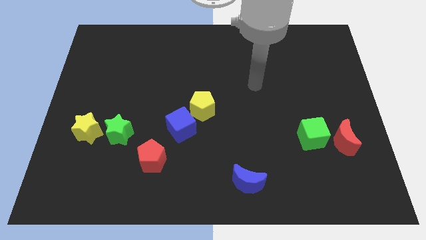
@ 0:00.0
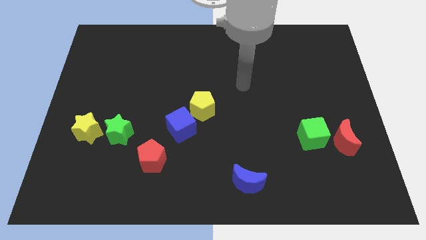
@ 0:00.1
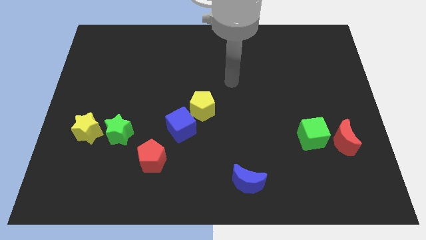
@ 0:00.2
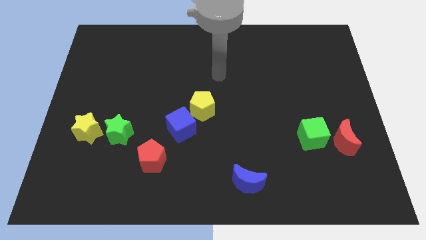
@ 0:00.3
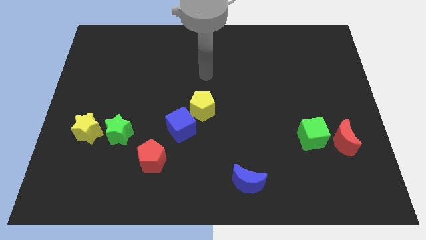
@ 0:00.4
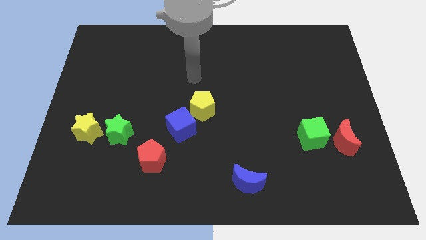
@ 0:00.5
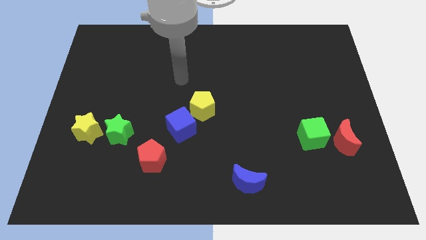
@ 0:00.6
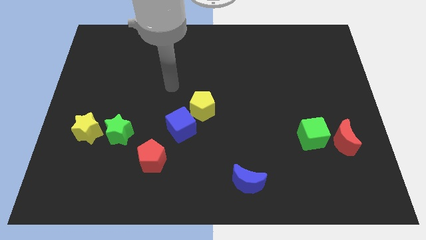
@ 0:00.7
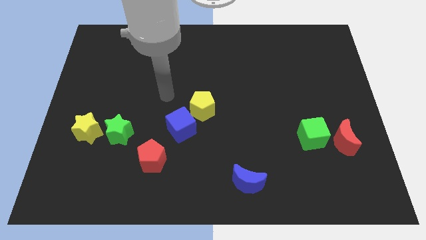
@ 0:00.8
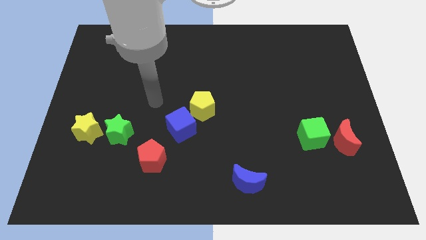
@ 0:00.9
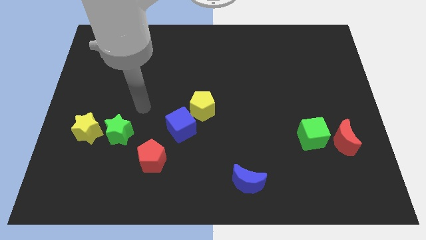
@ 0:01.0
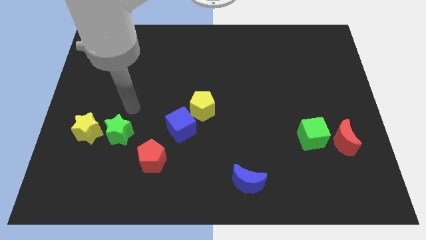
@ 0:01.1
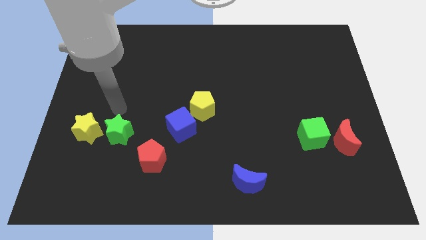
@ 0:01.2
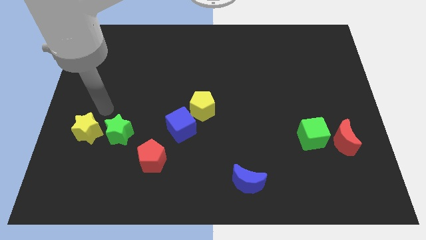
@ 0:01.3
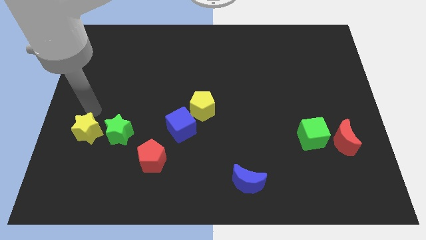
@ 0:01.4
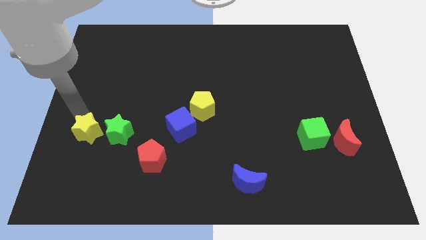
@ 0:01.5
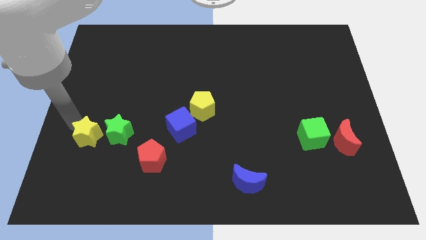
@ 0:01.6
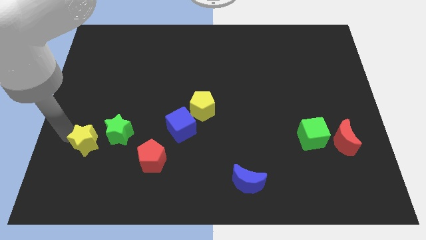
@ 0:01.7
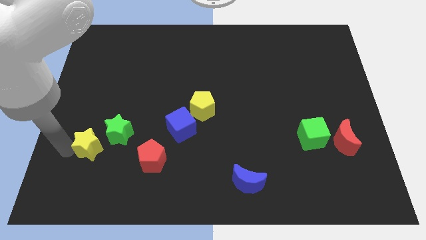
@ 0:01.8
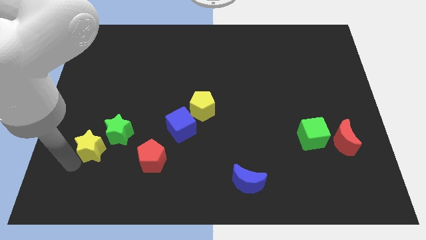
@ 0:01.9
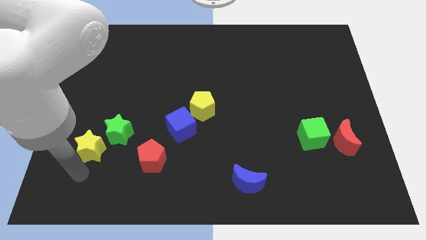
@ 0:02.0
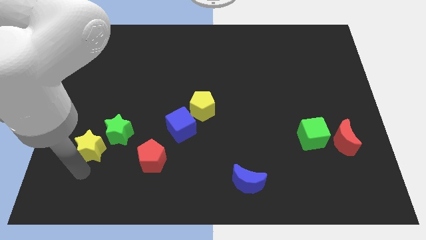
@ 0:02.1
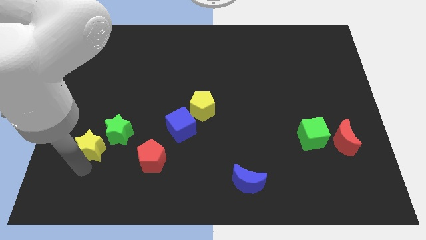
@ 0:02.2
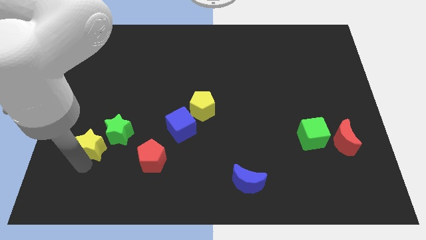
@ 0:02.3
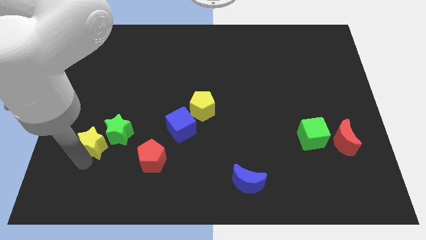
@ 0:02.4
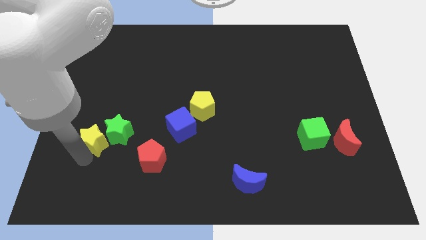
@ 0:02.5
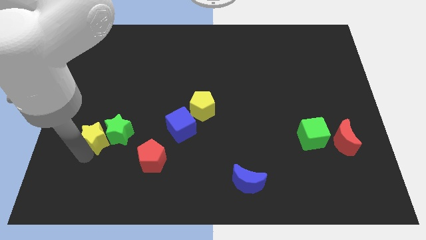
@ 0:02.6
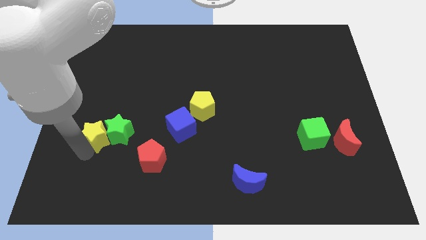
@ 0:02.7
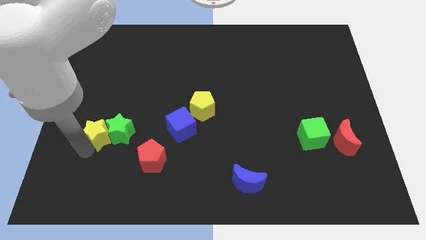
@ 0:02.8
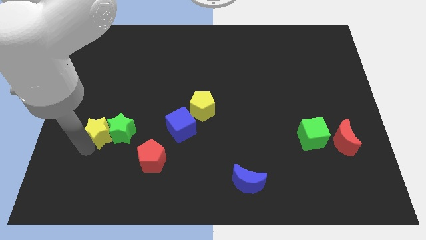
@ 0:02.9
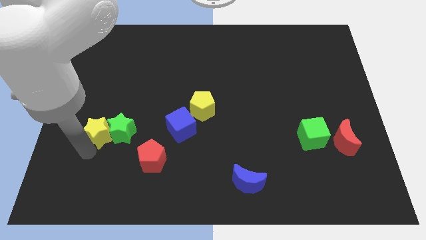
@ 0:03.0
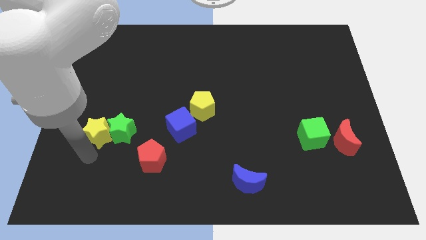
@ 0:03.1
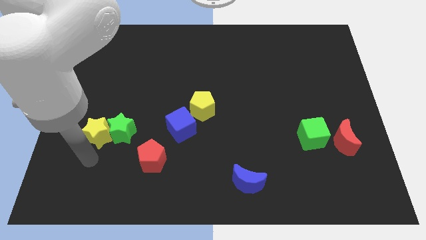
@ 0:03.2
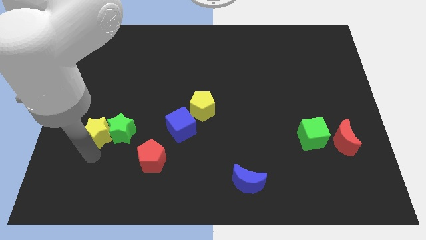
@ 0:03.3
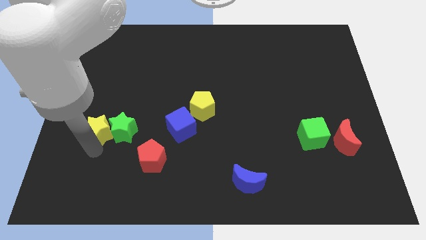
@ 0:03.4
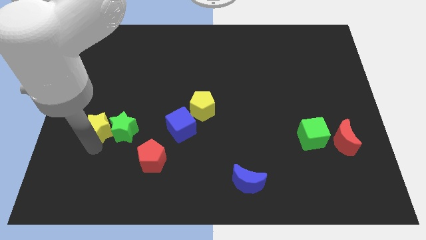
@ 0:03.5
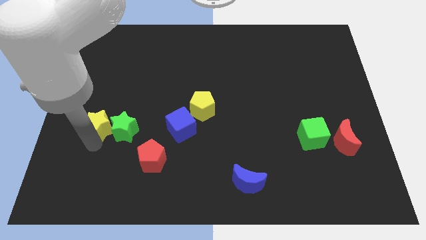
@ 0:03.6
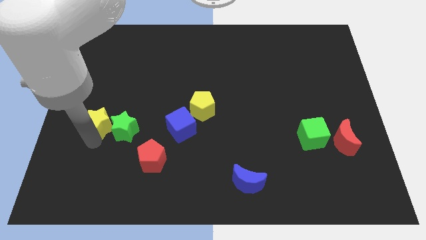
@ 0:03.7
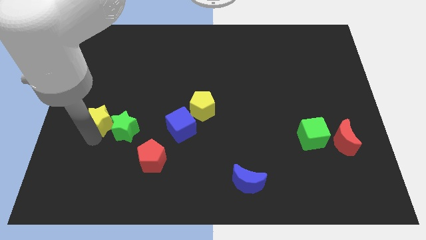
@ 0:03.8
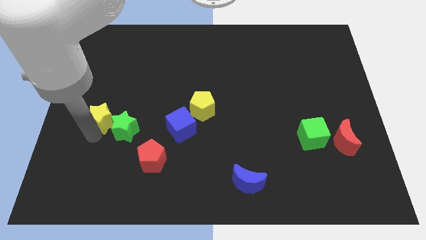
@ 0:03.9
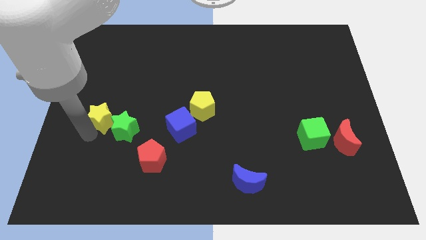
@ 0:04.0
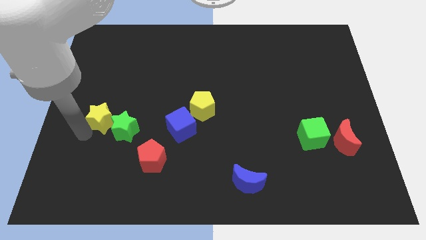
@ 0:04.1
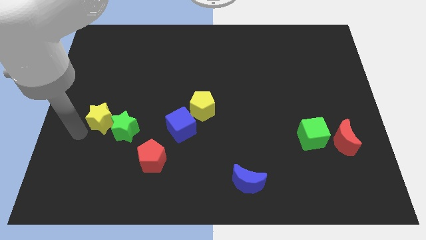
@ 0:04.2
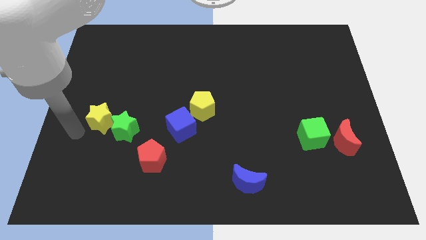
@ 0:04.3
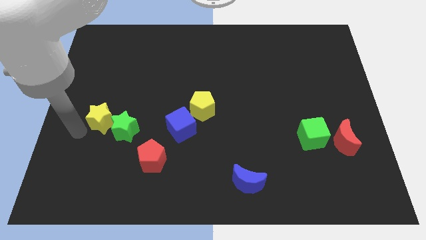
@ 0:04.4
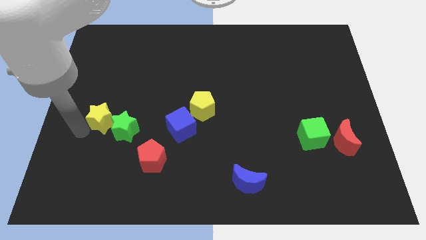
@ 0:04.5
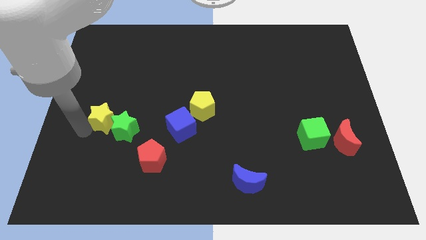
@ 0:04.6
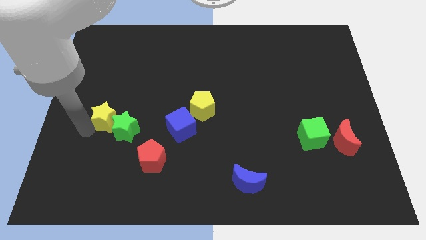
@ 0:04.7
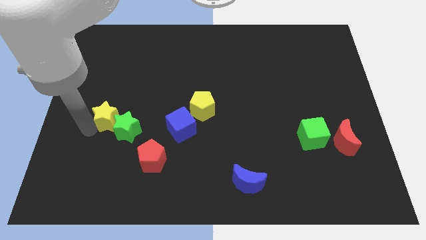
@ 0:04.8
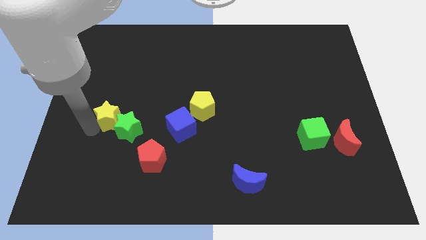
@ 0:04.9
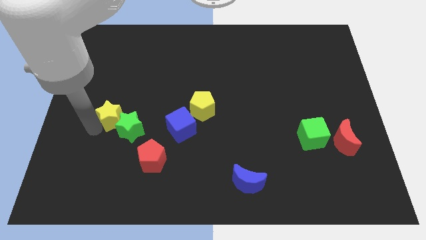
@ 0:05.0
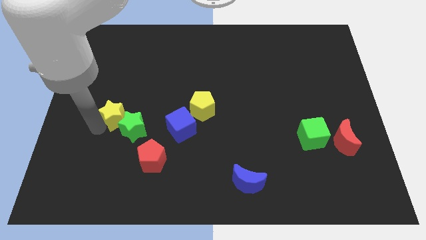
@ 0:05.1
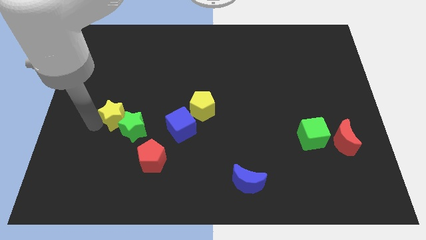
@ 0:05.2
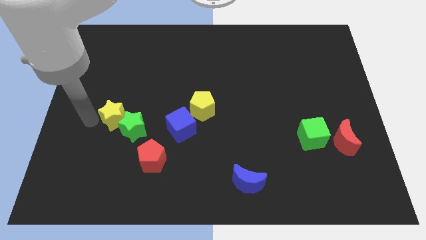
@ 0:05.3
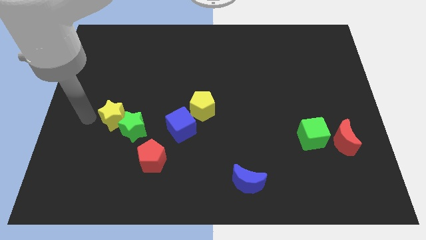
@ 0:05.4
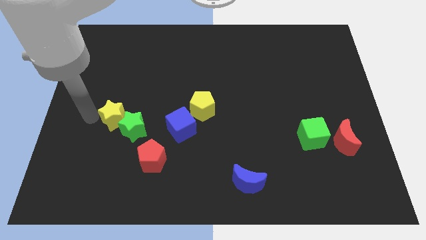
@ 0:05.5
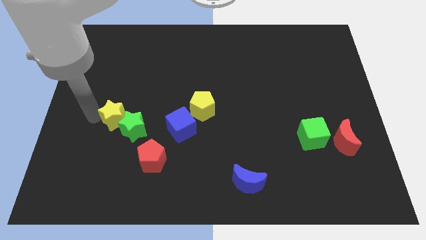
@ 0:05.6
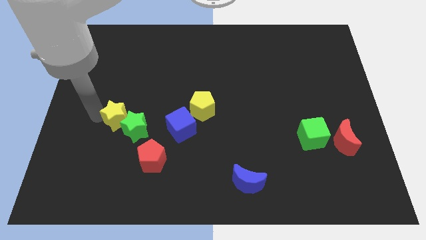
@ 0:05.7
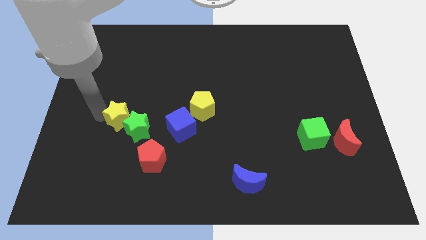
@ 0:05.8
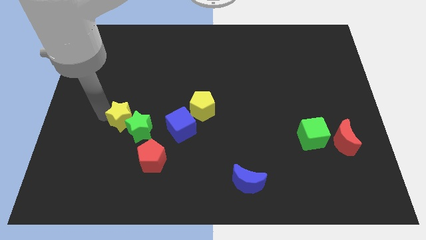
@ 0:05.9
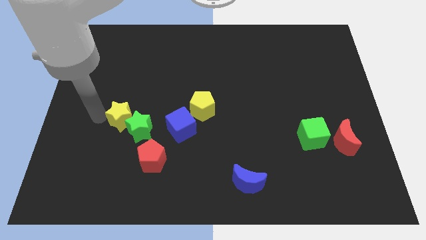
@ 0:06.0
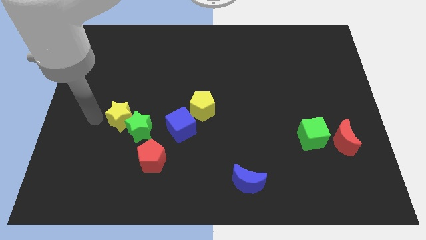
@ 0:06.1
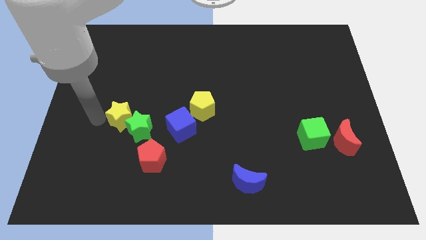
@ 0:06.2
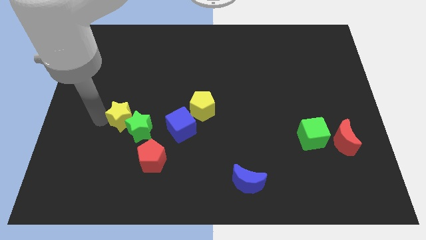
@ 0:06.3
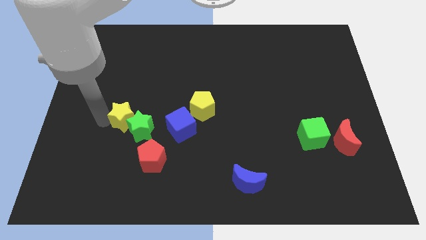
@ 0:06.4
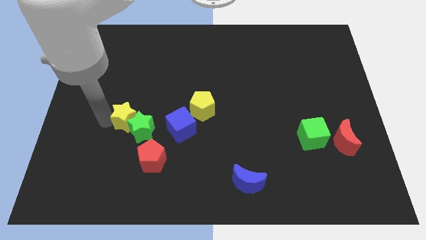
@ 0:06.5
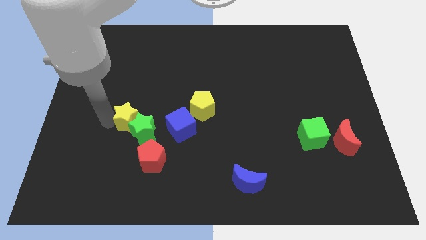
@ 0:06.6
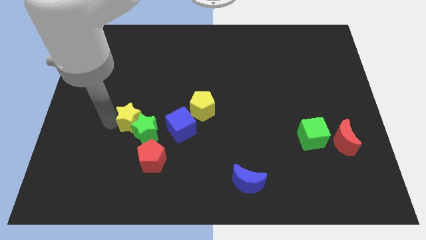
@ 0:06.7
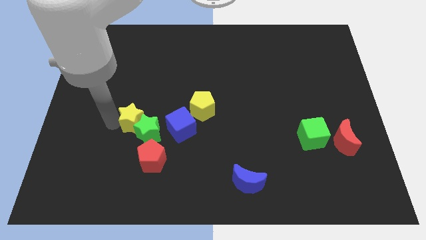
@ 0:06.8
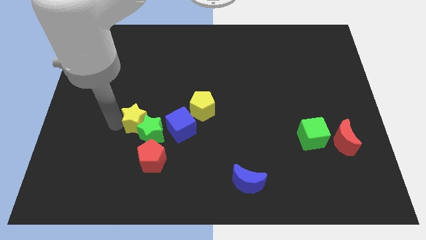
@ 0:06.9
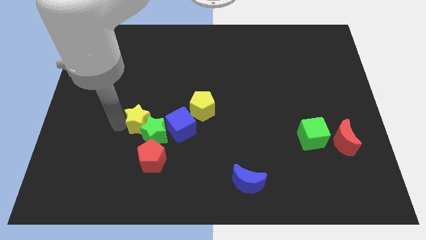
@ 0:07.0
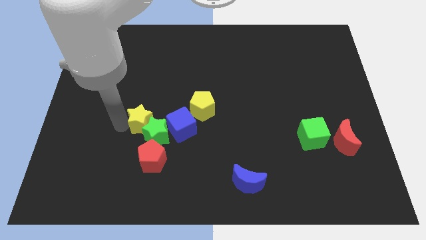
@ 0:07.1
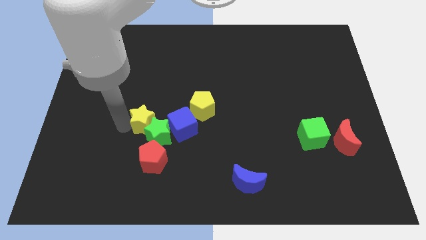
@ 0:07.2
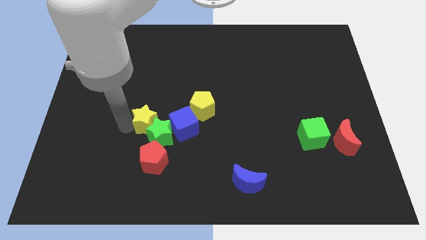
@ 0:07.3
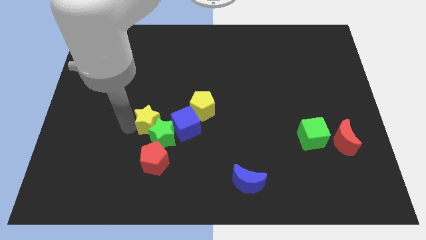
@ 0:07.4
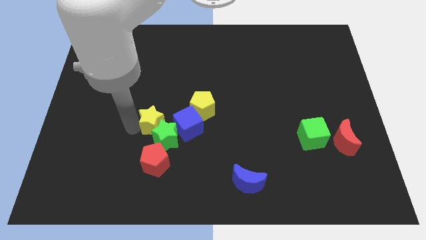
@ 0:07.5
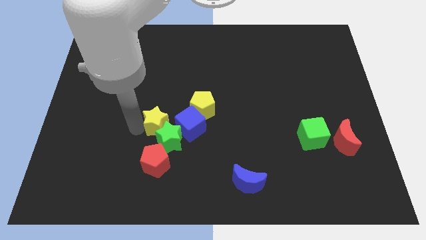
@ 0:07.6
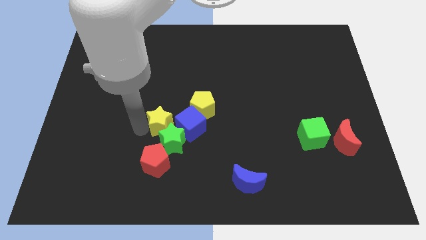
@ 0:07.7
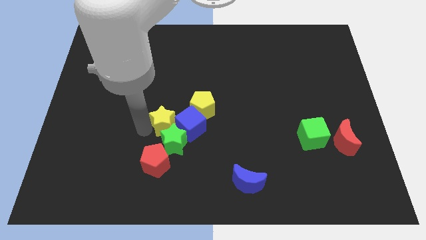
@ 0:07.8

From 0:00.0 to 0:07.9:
slide the yellow star towards the blue cube

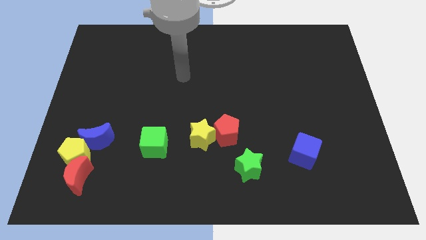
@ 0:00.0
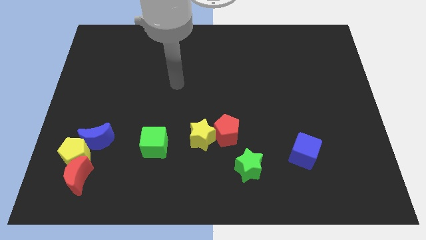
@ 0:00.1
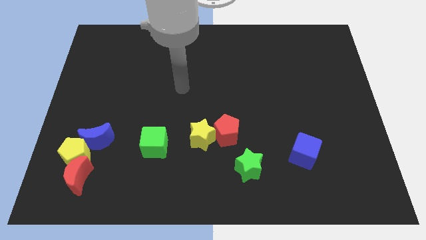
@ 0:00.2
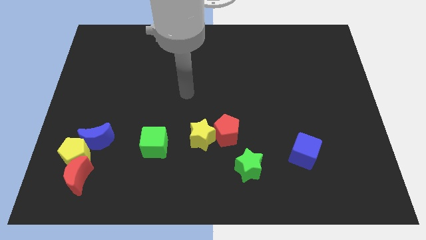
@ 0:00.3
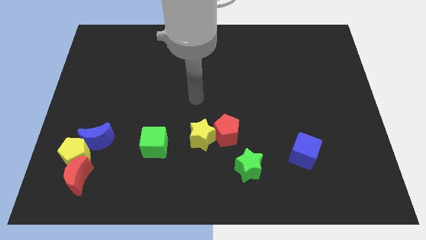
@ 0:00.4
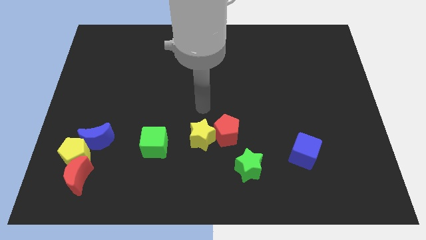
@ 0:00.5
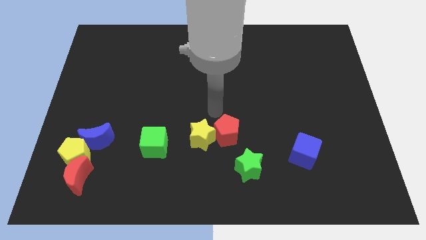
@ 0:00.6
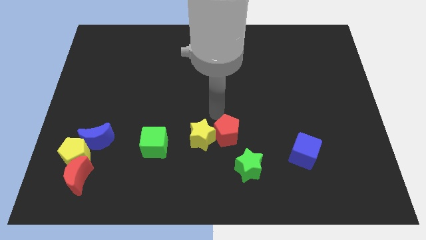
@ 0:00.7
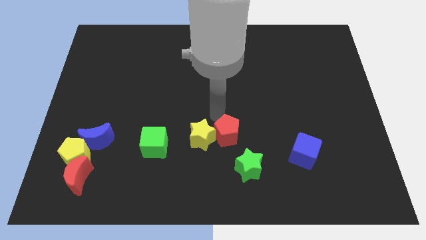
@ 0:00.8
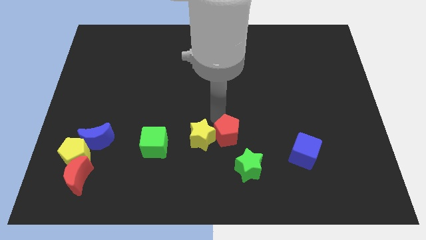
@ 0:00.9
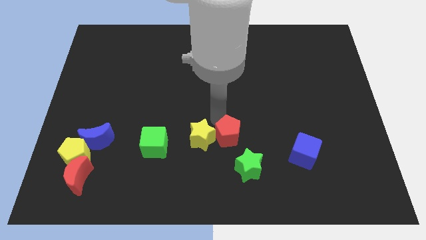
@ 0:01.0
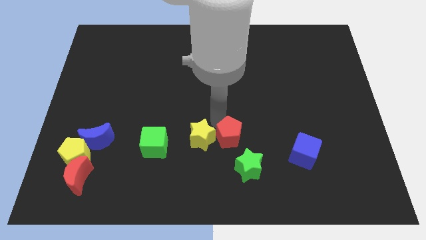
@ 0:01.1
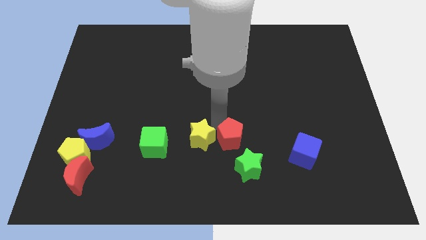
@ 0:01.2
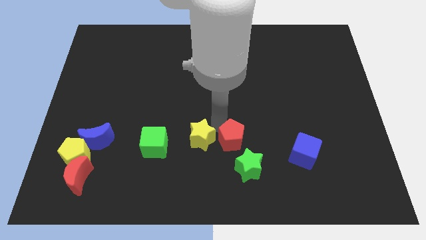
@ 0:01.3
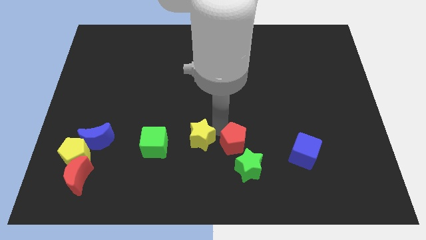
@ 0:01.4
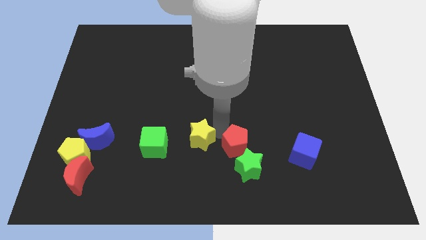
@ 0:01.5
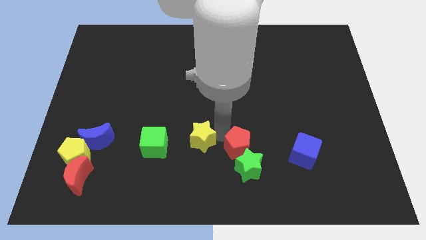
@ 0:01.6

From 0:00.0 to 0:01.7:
slide the red pentagon towards the green star
